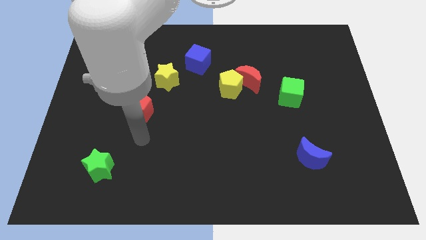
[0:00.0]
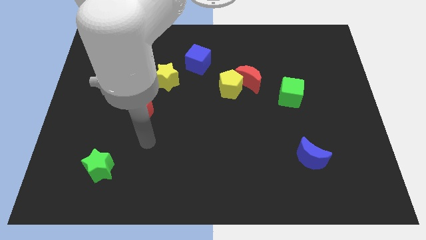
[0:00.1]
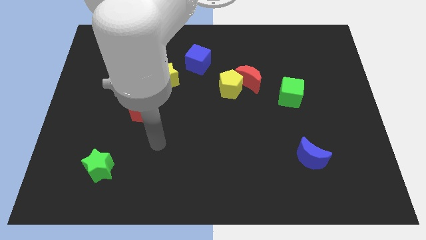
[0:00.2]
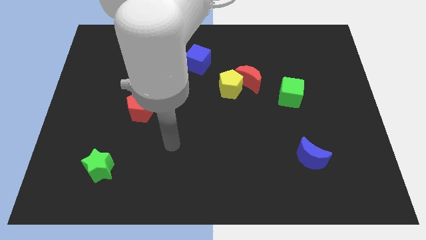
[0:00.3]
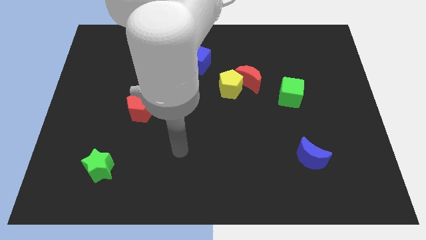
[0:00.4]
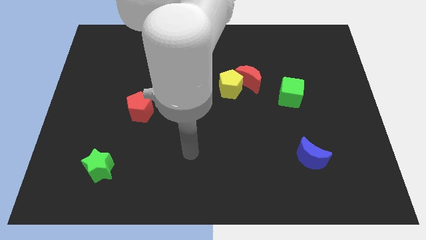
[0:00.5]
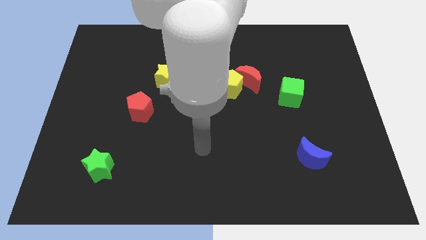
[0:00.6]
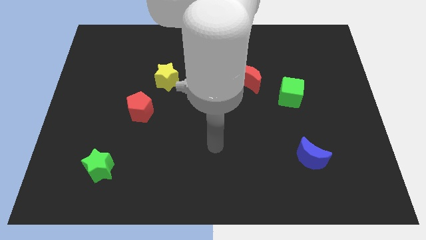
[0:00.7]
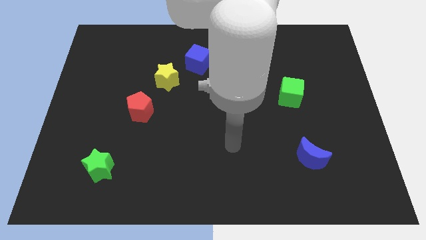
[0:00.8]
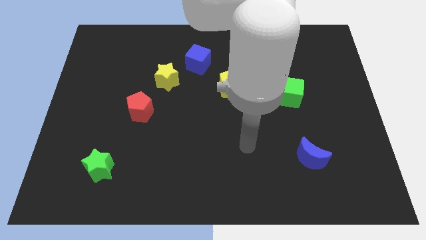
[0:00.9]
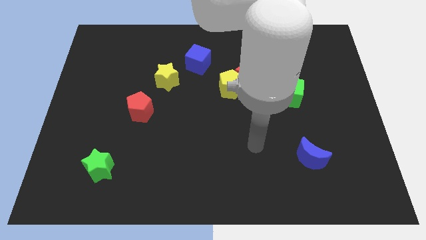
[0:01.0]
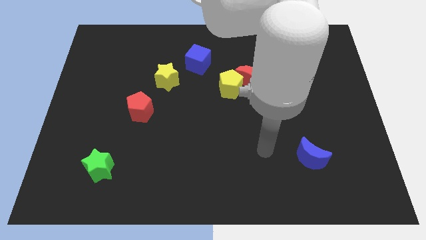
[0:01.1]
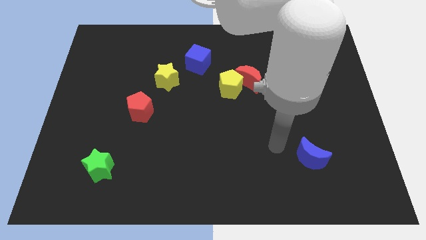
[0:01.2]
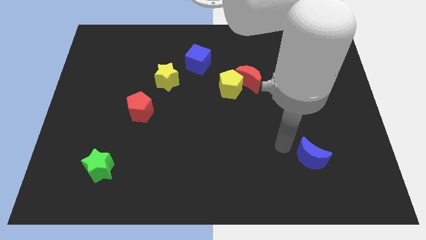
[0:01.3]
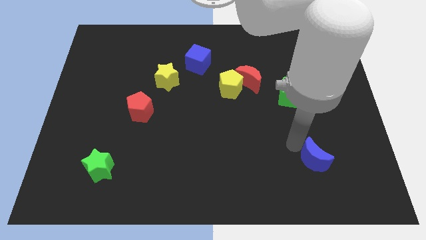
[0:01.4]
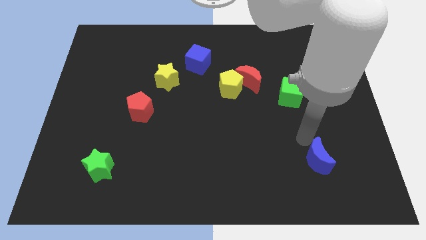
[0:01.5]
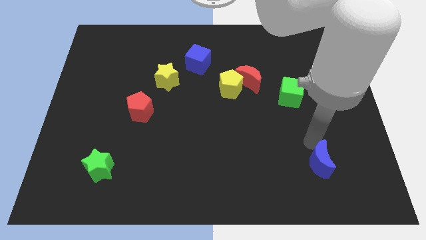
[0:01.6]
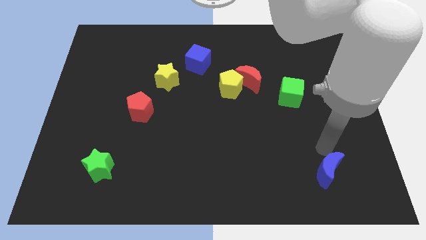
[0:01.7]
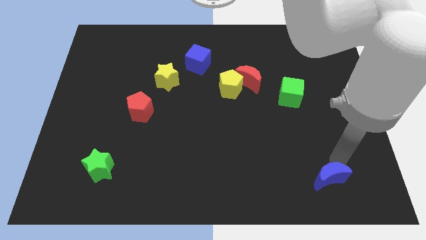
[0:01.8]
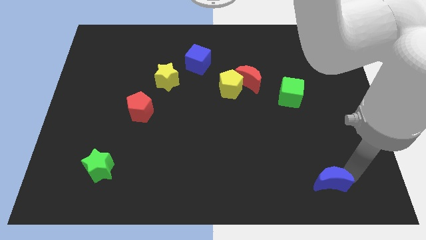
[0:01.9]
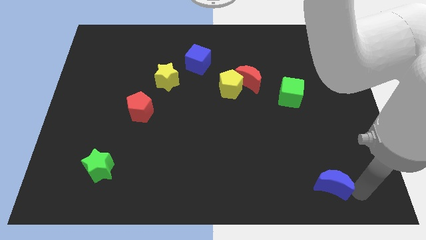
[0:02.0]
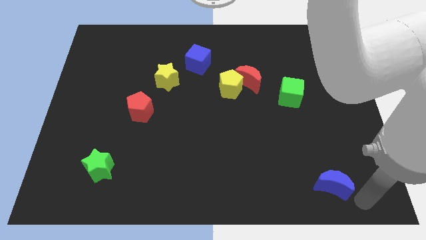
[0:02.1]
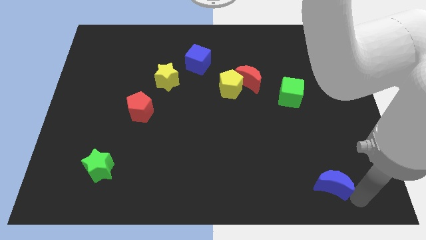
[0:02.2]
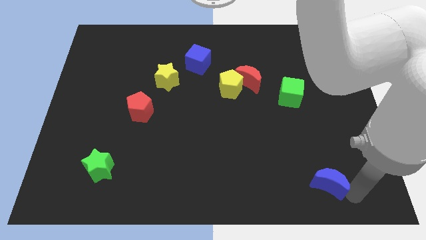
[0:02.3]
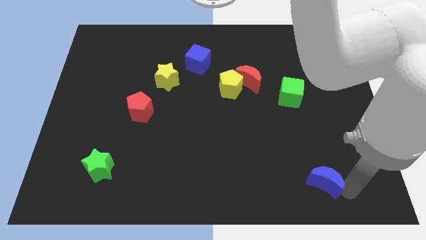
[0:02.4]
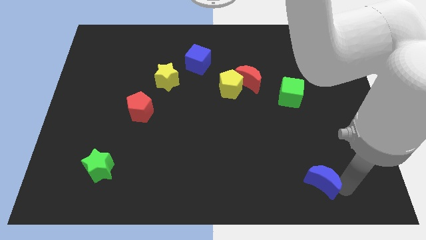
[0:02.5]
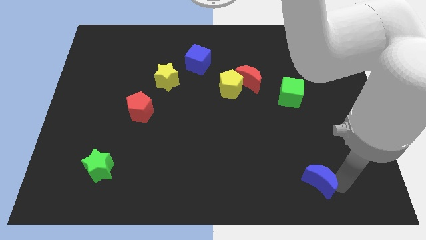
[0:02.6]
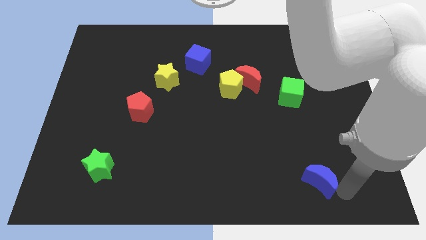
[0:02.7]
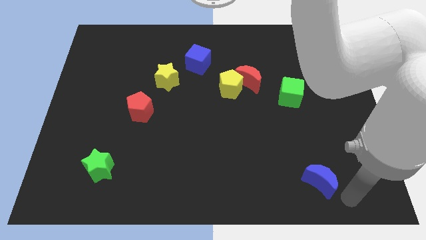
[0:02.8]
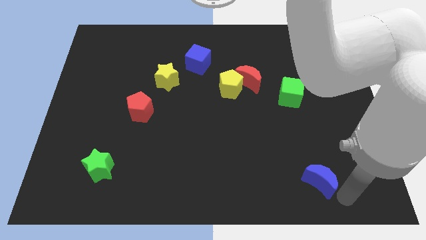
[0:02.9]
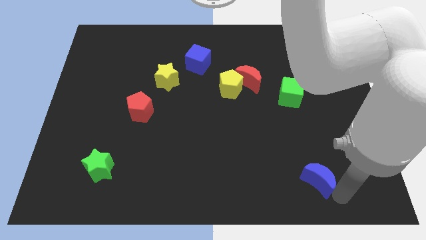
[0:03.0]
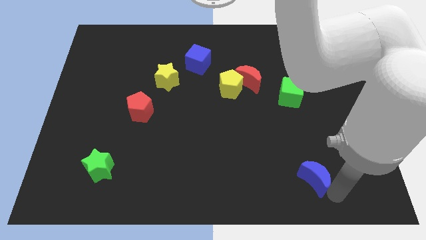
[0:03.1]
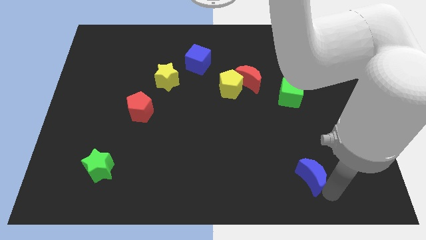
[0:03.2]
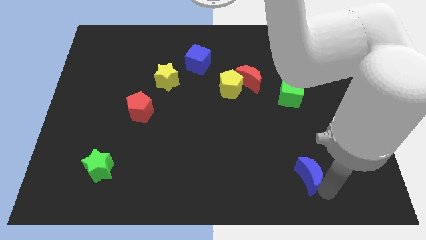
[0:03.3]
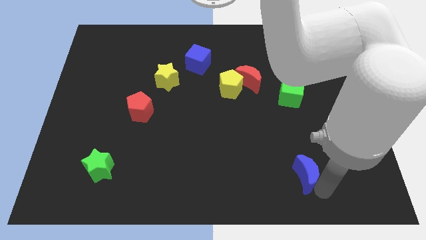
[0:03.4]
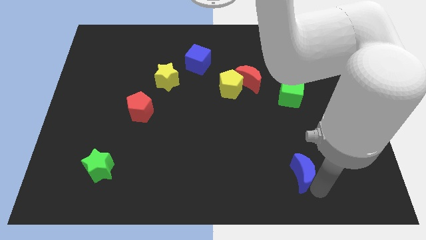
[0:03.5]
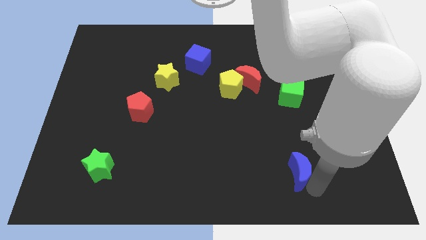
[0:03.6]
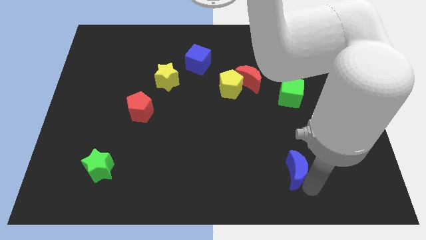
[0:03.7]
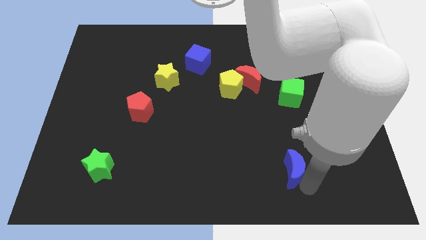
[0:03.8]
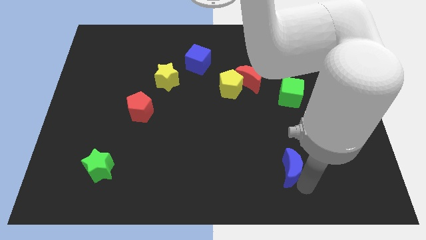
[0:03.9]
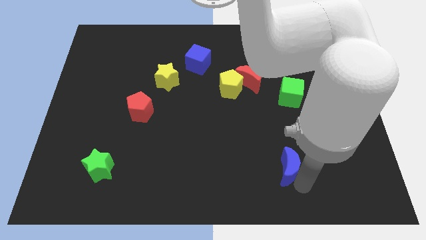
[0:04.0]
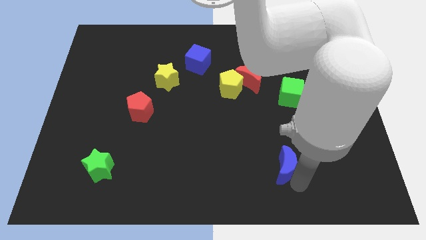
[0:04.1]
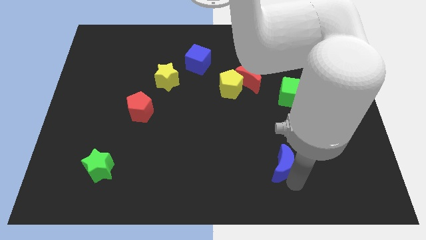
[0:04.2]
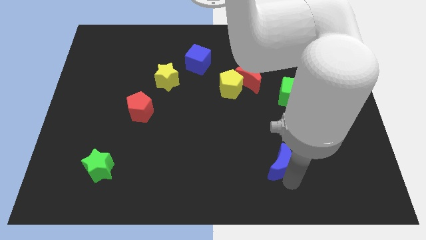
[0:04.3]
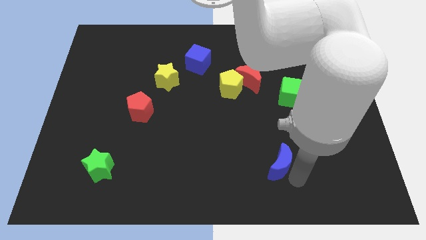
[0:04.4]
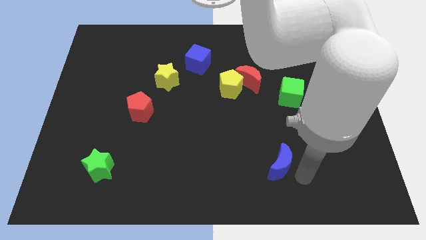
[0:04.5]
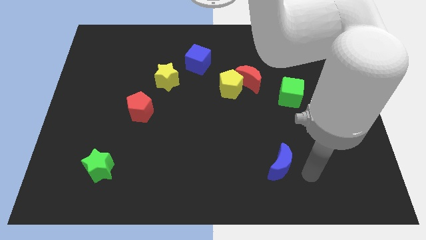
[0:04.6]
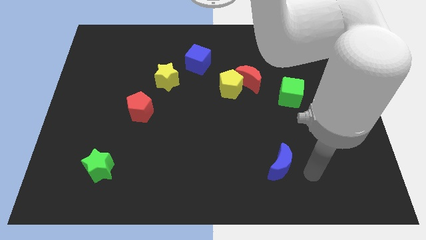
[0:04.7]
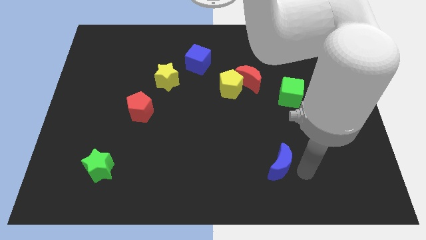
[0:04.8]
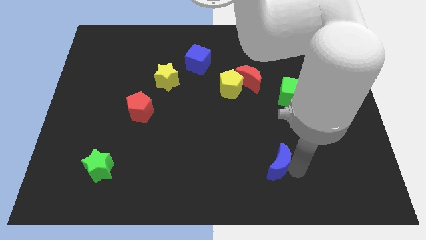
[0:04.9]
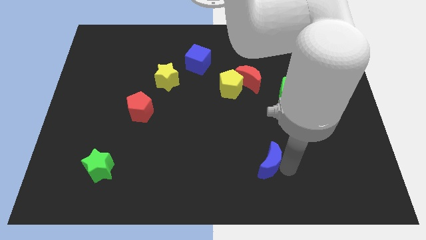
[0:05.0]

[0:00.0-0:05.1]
push the blue moon to the left a bit

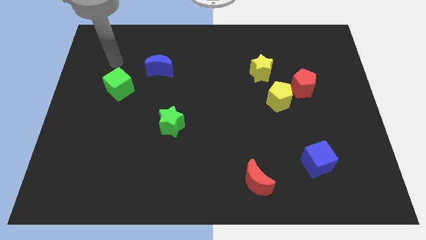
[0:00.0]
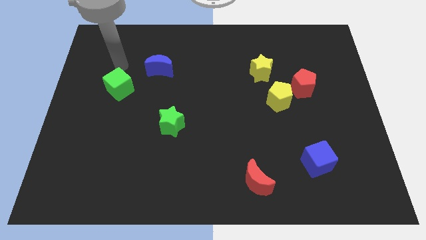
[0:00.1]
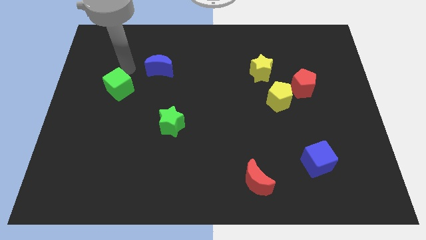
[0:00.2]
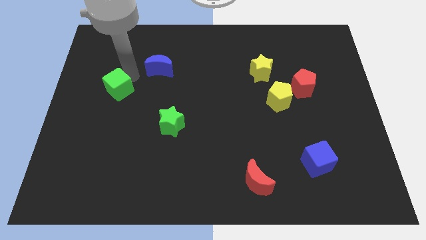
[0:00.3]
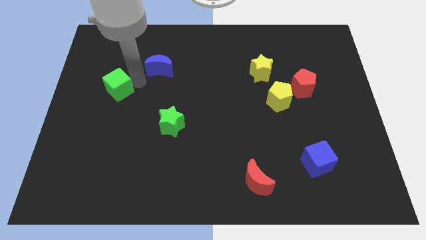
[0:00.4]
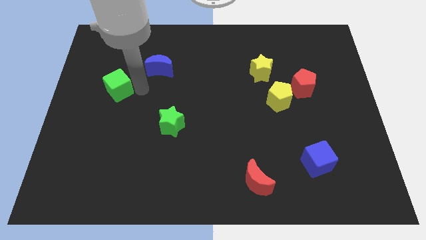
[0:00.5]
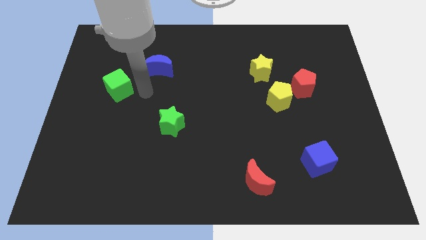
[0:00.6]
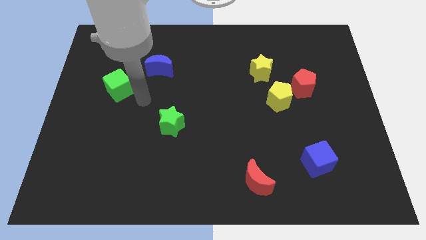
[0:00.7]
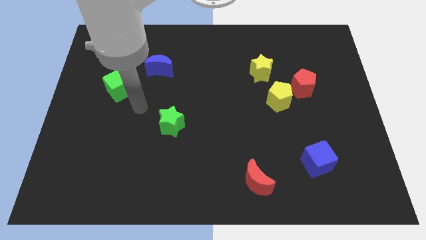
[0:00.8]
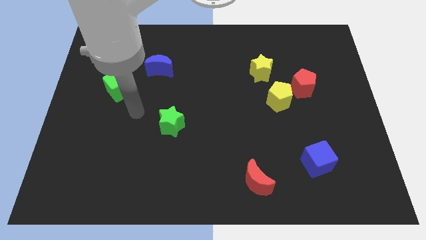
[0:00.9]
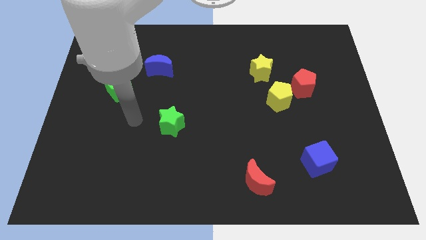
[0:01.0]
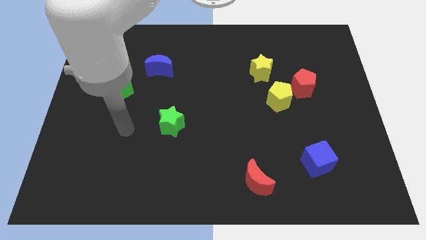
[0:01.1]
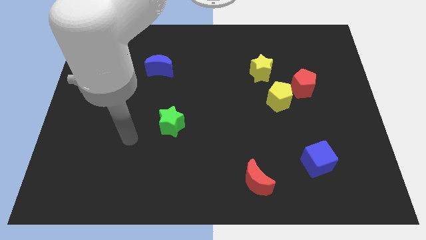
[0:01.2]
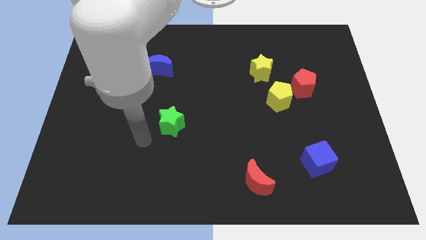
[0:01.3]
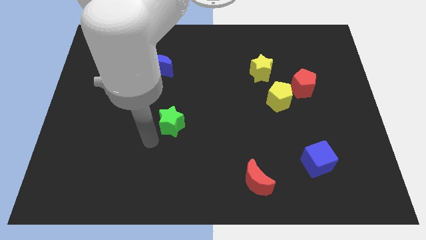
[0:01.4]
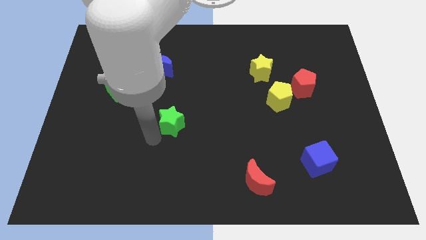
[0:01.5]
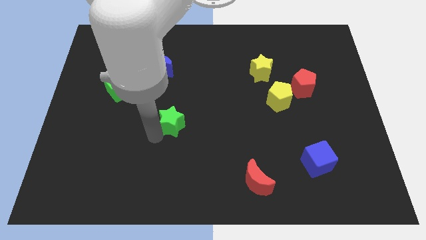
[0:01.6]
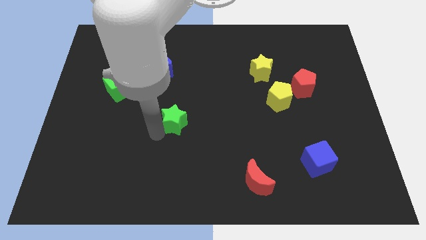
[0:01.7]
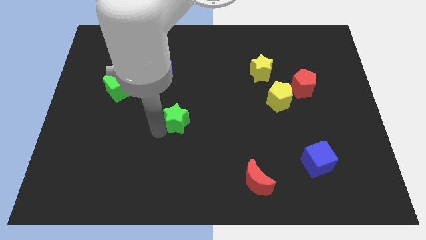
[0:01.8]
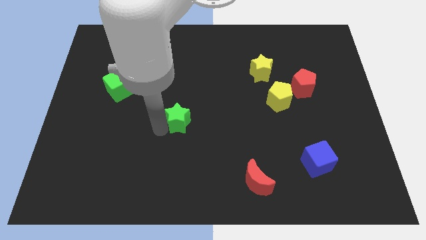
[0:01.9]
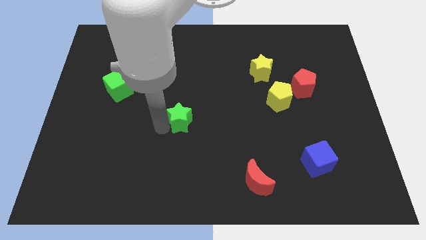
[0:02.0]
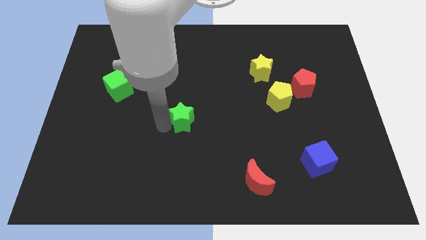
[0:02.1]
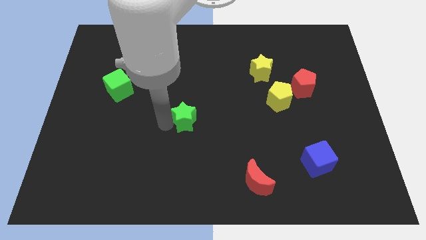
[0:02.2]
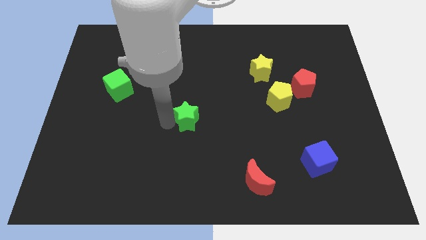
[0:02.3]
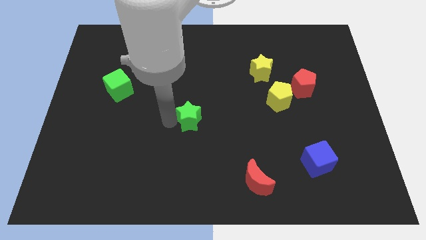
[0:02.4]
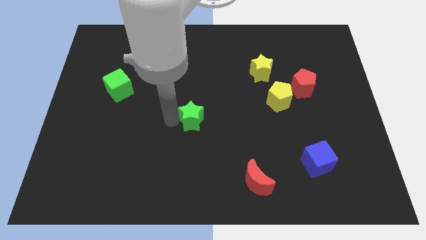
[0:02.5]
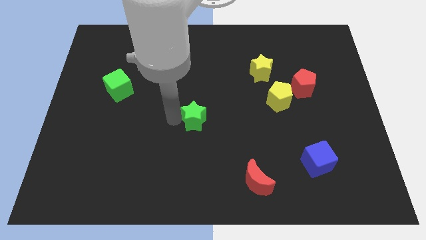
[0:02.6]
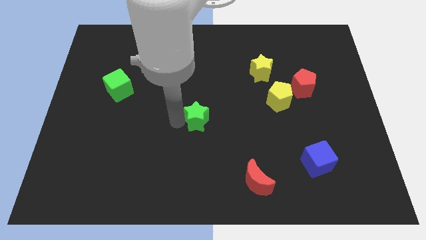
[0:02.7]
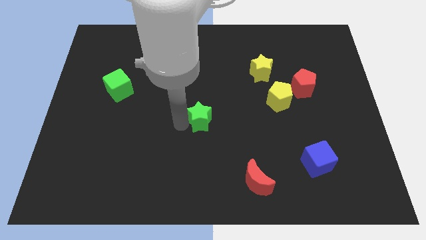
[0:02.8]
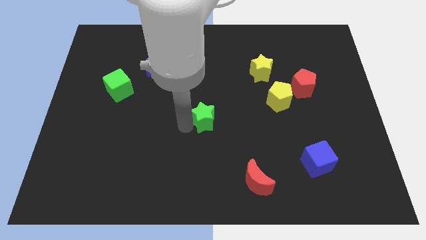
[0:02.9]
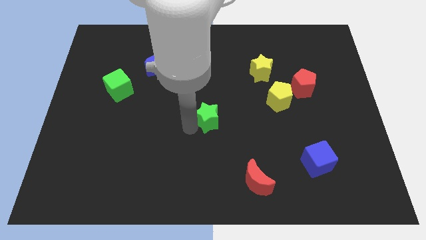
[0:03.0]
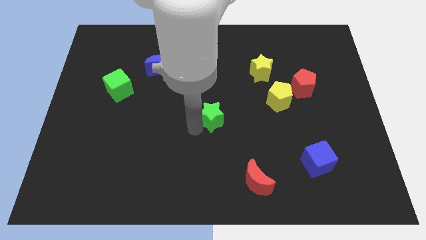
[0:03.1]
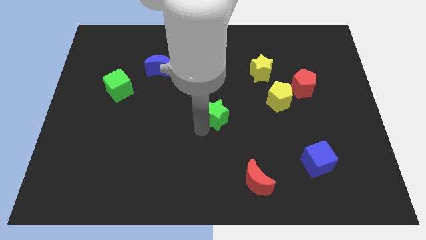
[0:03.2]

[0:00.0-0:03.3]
push the green star diagonally up and right a little bit

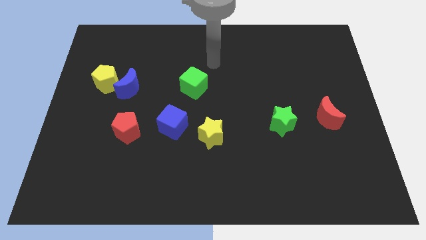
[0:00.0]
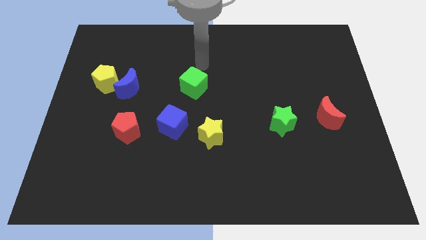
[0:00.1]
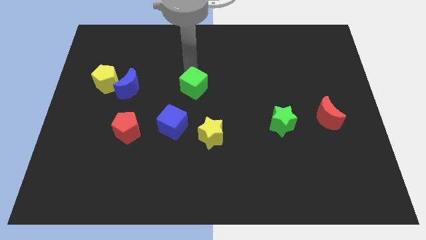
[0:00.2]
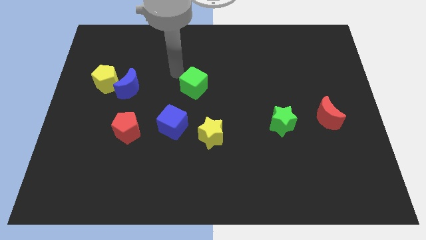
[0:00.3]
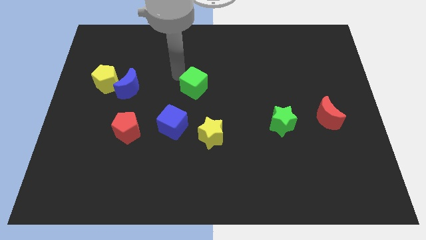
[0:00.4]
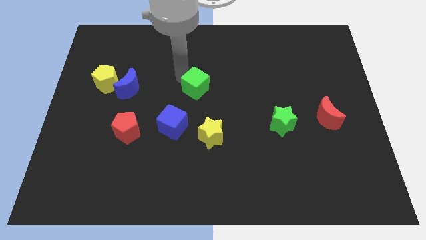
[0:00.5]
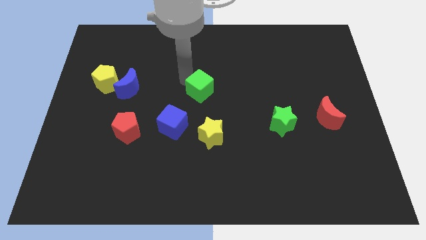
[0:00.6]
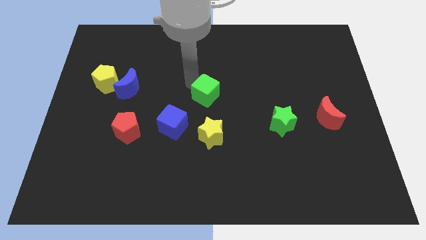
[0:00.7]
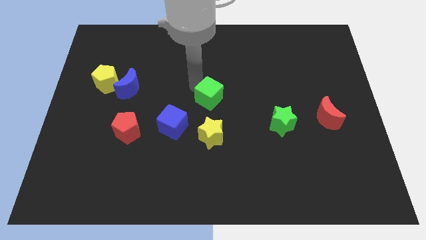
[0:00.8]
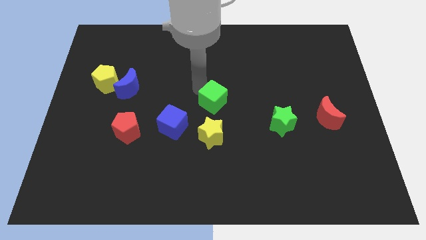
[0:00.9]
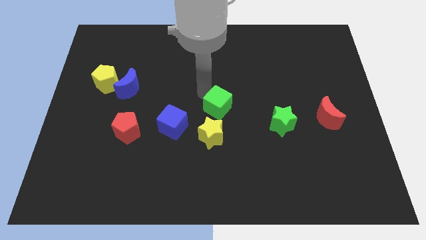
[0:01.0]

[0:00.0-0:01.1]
slightly push the green cube downwards and right diagonally
